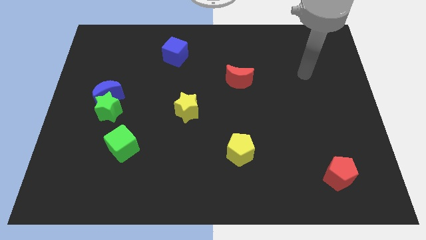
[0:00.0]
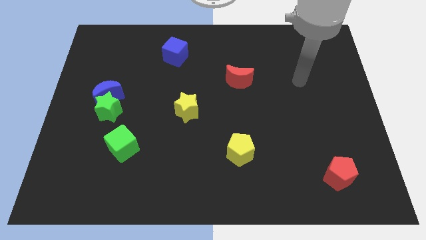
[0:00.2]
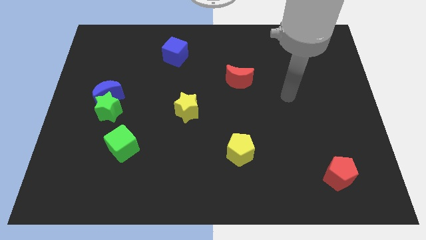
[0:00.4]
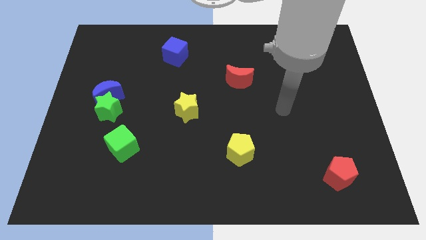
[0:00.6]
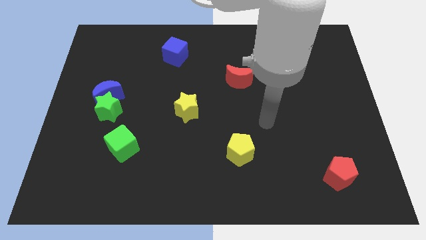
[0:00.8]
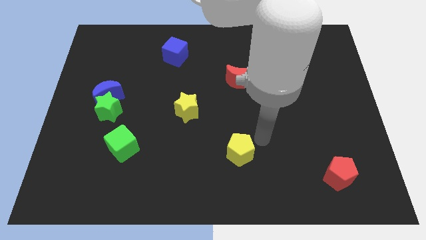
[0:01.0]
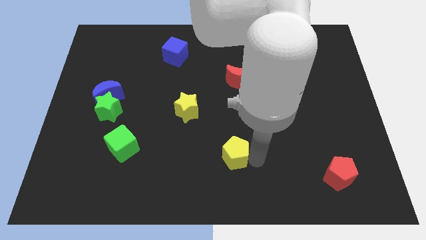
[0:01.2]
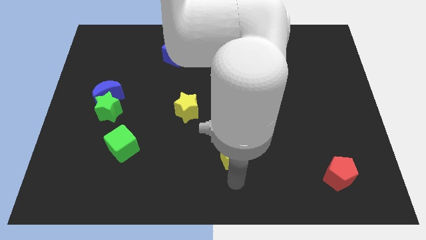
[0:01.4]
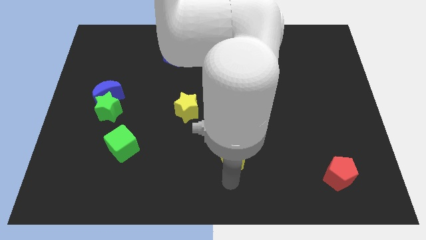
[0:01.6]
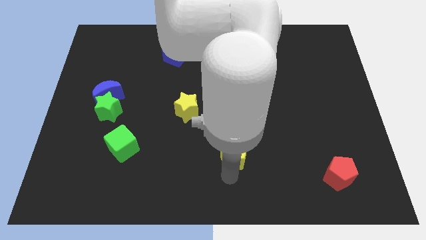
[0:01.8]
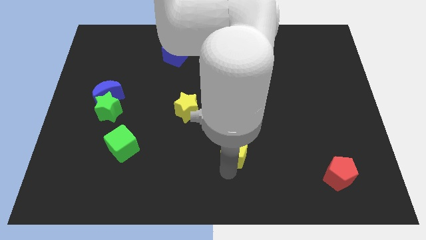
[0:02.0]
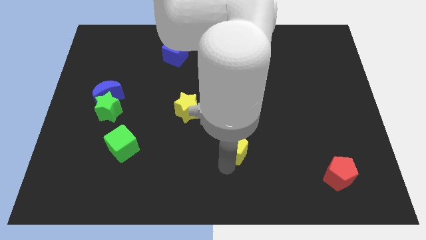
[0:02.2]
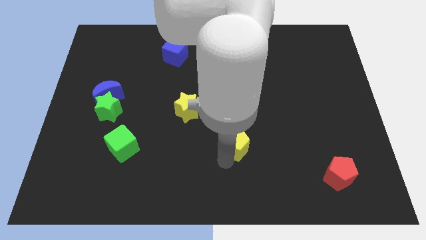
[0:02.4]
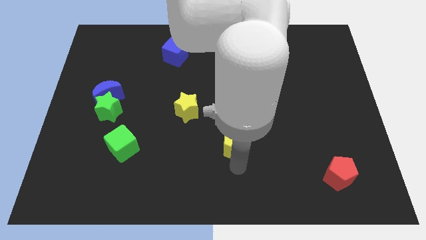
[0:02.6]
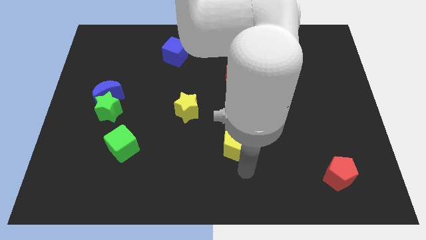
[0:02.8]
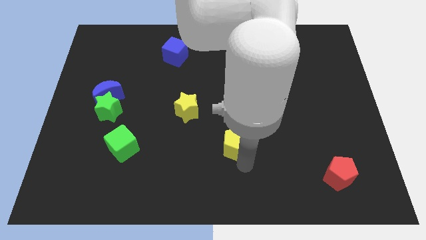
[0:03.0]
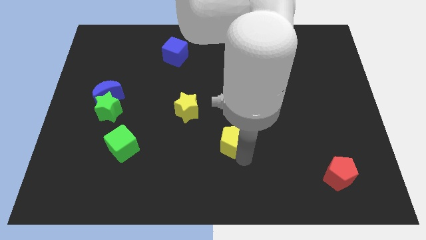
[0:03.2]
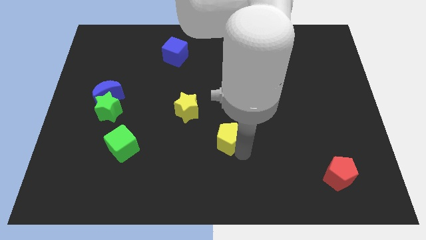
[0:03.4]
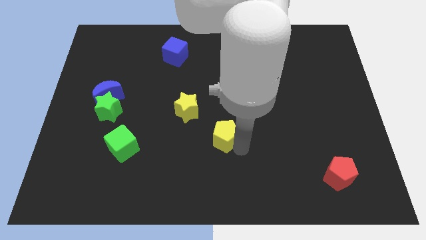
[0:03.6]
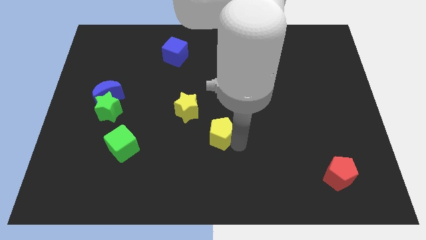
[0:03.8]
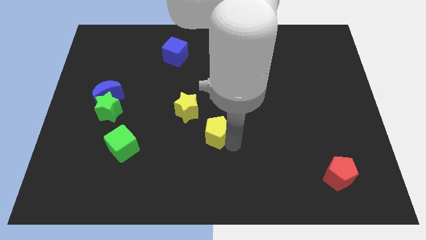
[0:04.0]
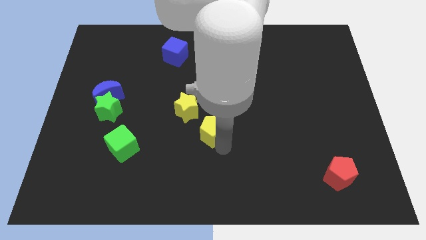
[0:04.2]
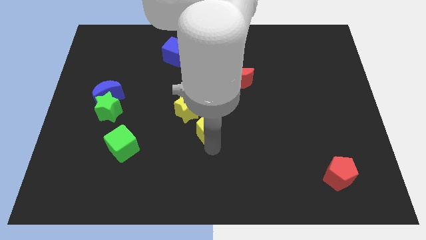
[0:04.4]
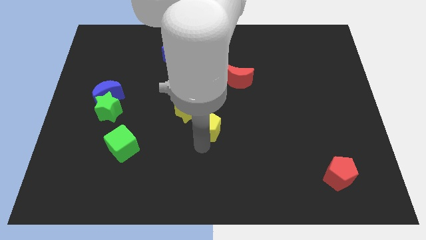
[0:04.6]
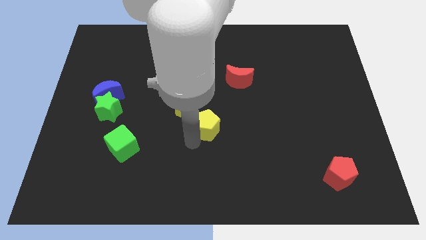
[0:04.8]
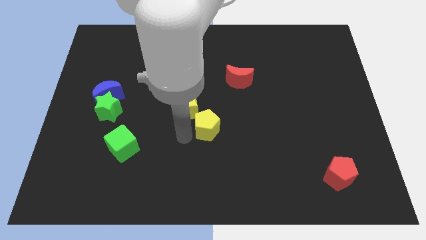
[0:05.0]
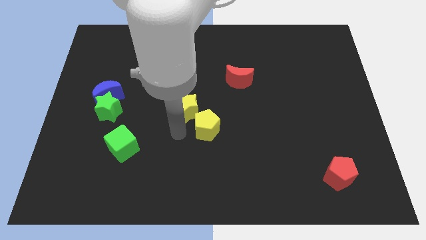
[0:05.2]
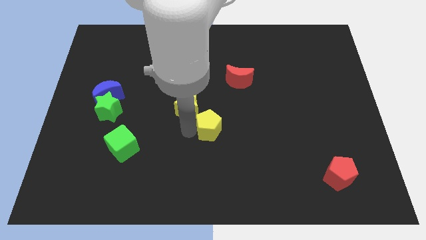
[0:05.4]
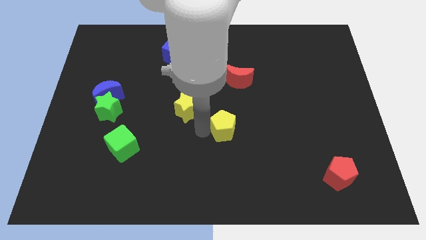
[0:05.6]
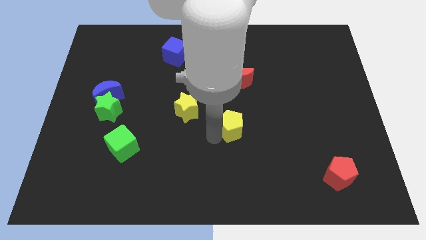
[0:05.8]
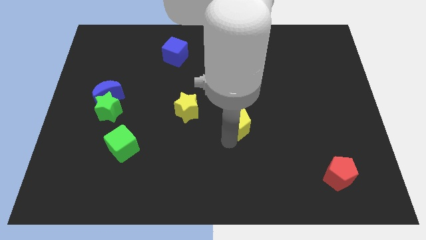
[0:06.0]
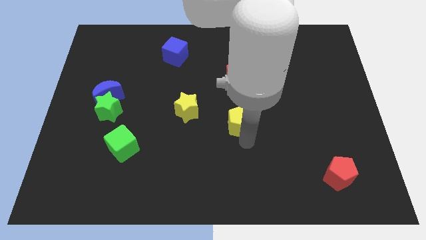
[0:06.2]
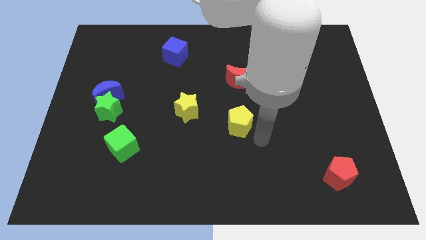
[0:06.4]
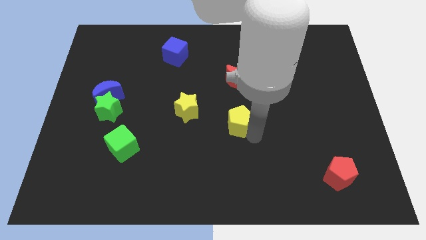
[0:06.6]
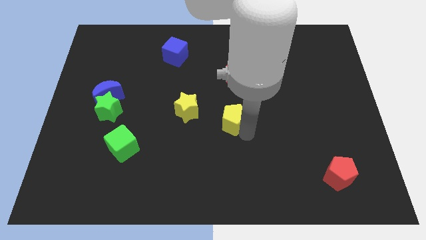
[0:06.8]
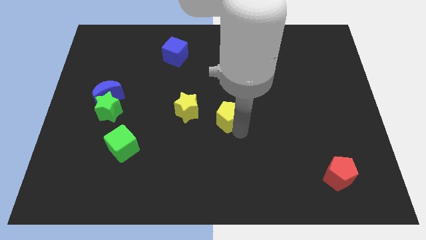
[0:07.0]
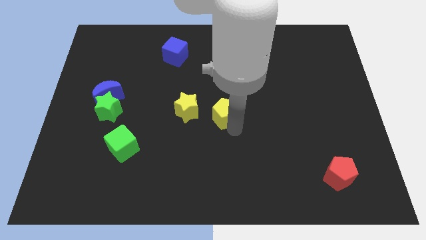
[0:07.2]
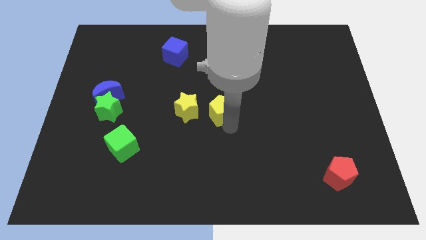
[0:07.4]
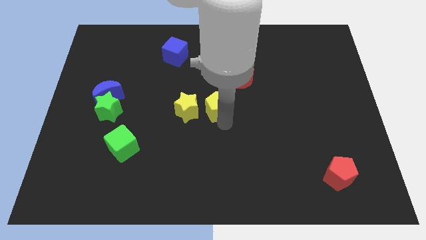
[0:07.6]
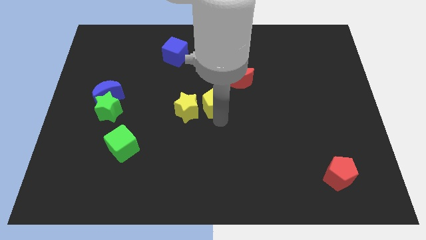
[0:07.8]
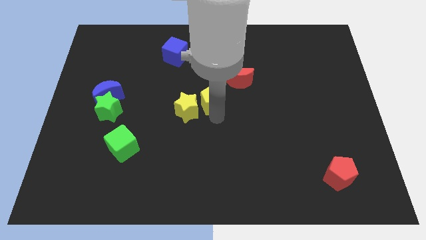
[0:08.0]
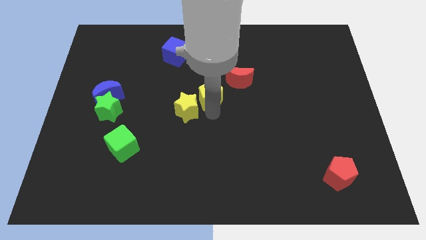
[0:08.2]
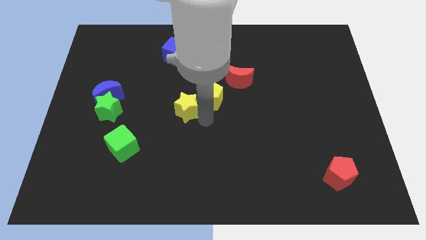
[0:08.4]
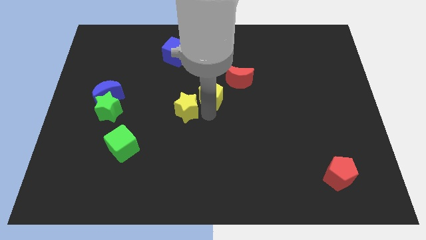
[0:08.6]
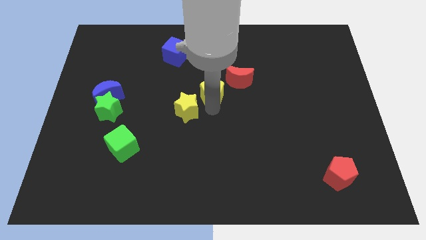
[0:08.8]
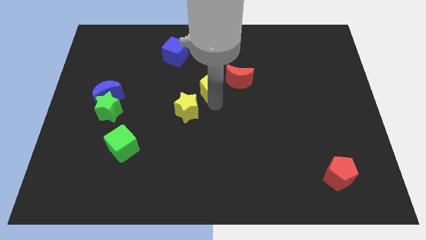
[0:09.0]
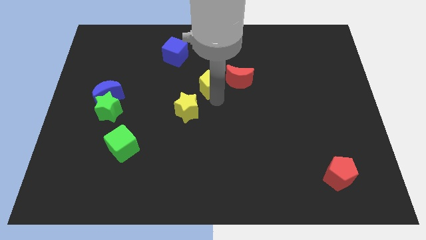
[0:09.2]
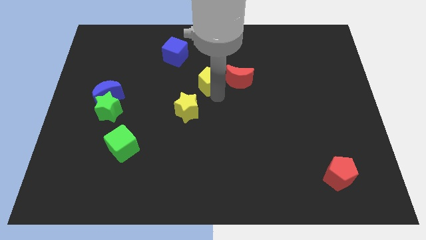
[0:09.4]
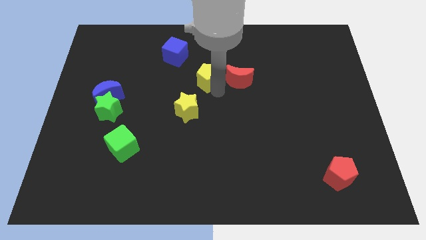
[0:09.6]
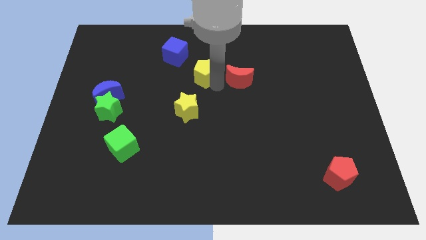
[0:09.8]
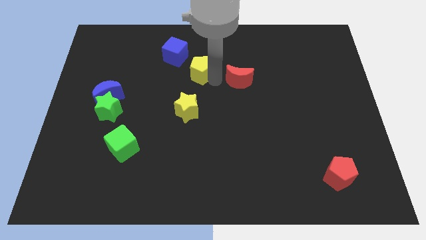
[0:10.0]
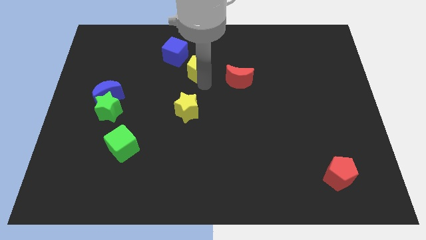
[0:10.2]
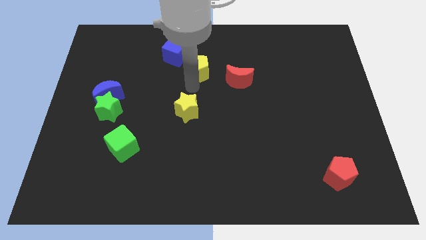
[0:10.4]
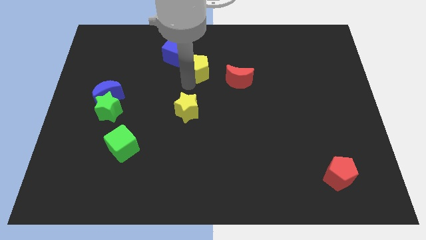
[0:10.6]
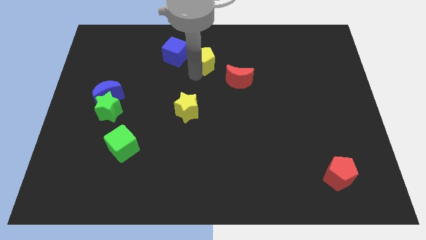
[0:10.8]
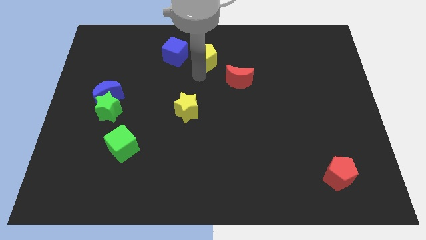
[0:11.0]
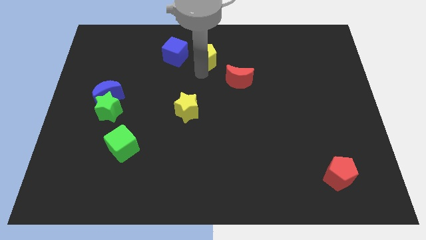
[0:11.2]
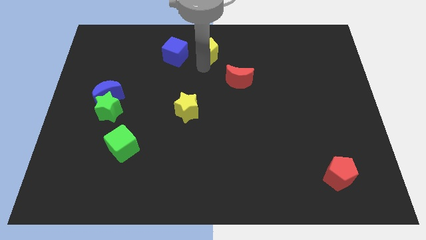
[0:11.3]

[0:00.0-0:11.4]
push the yellow pentagon to the top

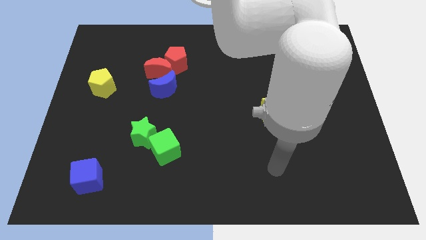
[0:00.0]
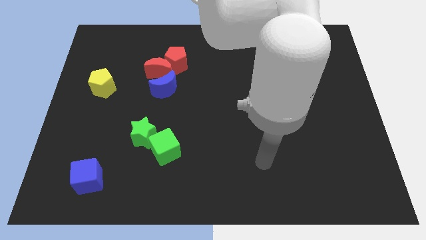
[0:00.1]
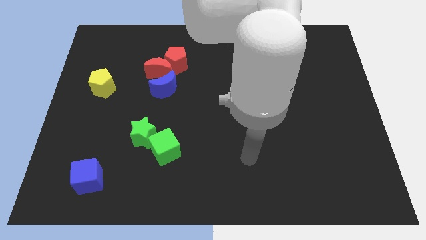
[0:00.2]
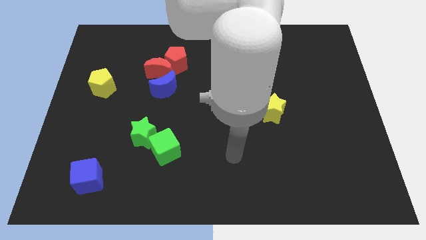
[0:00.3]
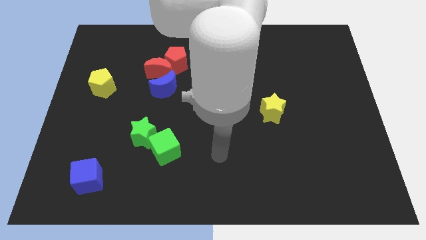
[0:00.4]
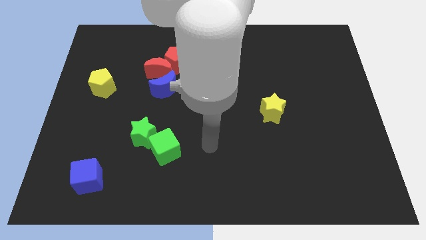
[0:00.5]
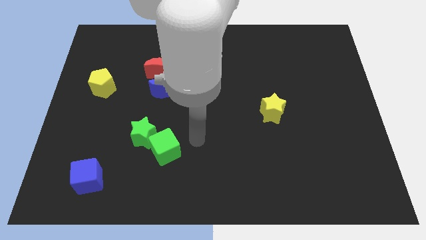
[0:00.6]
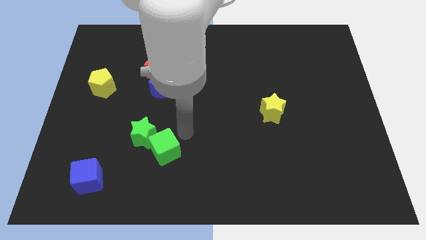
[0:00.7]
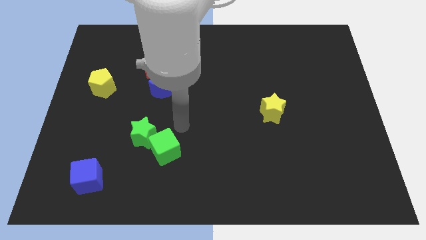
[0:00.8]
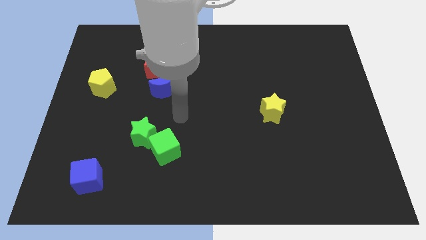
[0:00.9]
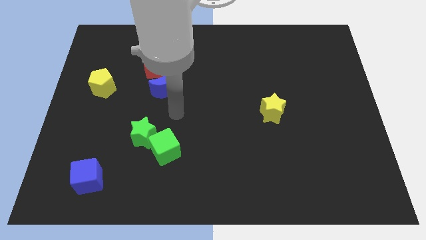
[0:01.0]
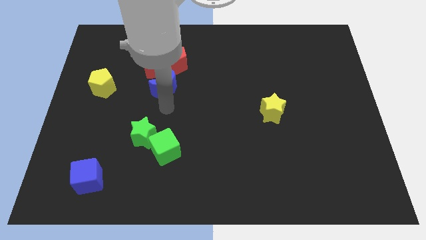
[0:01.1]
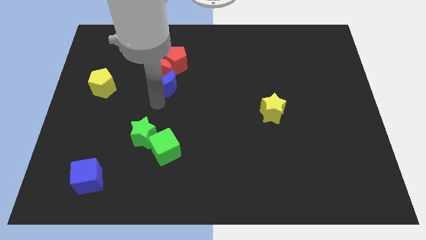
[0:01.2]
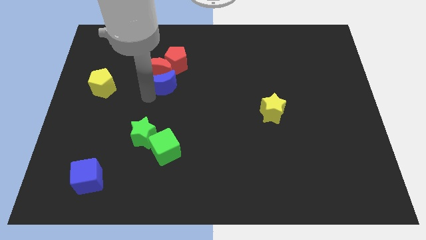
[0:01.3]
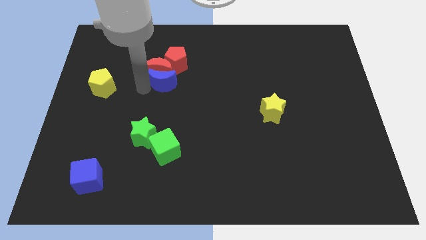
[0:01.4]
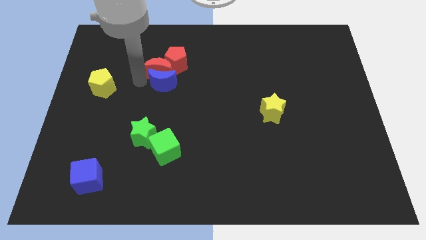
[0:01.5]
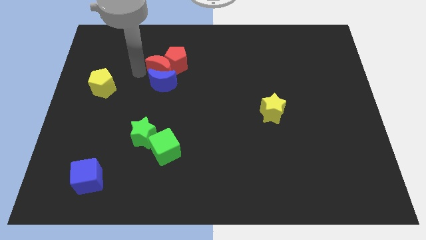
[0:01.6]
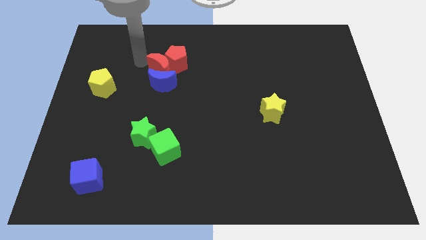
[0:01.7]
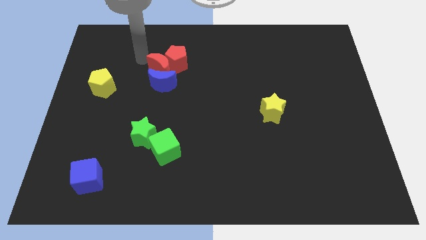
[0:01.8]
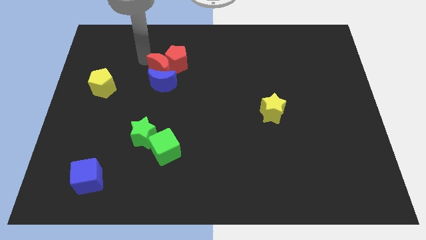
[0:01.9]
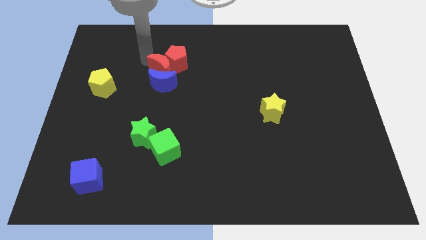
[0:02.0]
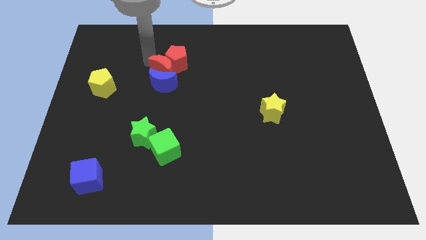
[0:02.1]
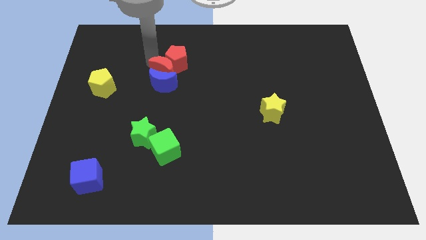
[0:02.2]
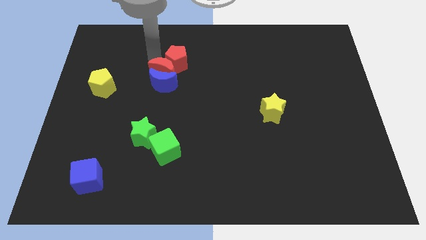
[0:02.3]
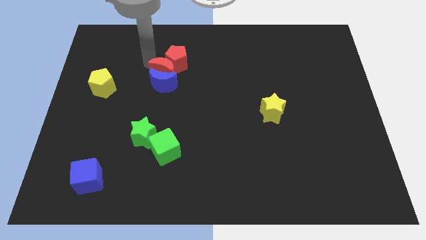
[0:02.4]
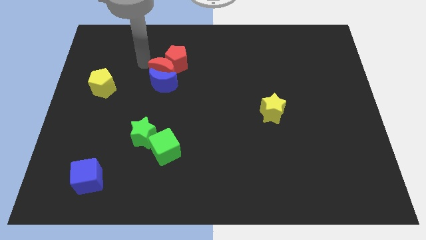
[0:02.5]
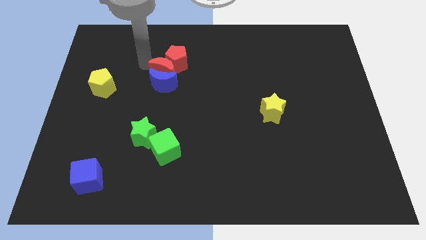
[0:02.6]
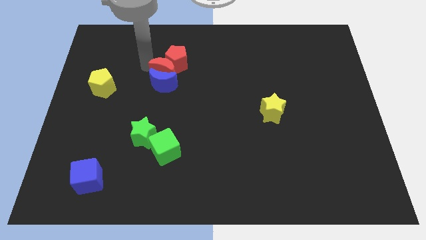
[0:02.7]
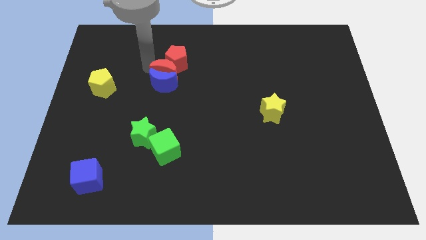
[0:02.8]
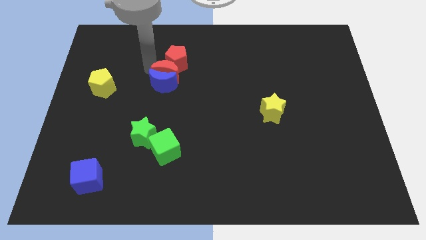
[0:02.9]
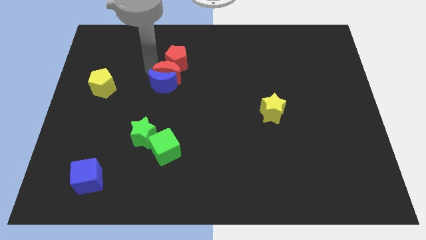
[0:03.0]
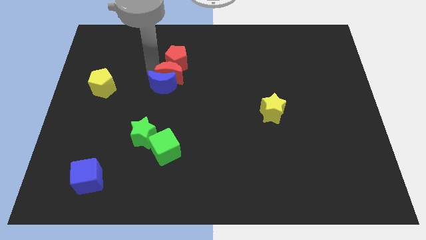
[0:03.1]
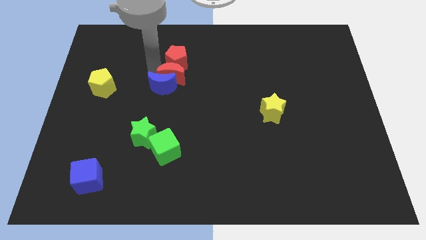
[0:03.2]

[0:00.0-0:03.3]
move the red moon to the center
